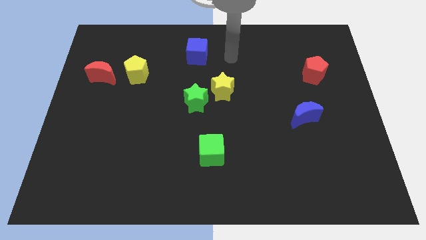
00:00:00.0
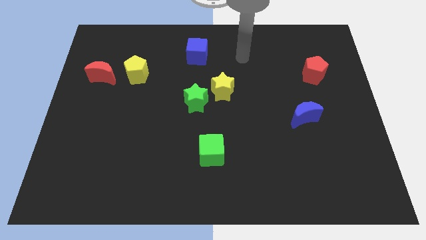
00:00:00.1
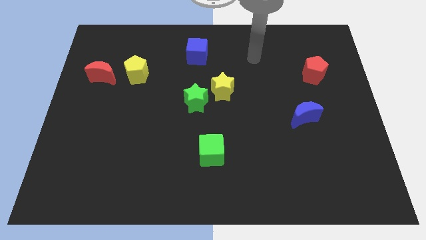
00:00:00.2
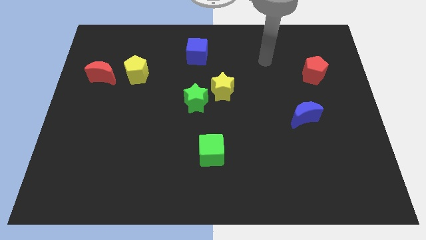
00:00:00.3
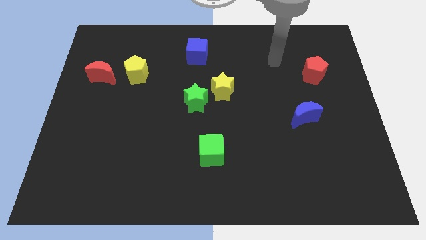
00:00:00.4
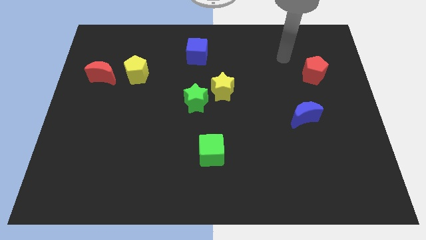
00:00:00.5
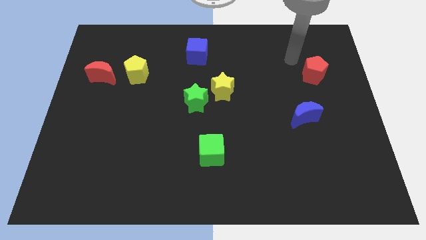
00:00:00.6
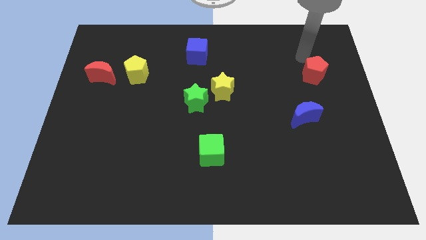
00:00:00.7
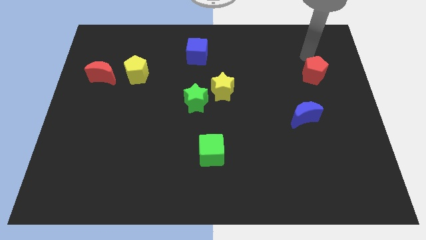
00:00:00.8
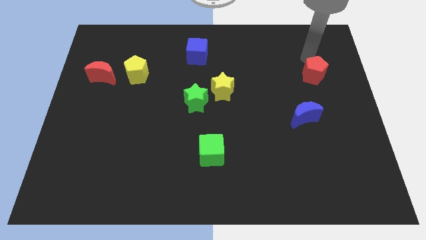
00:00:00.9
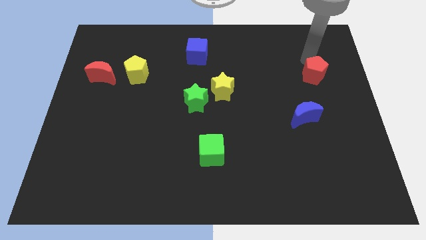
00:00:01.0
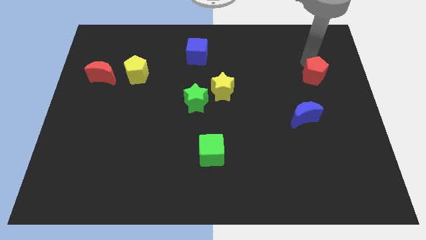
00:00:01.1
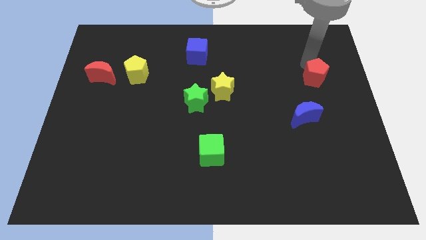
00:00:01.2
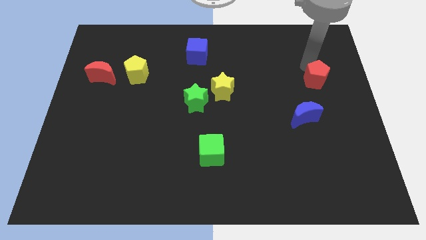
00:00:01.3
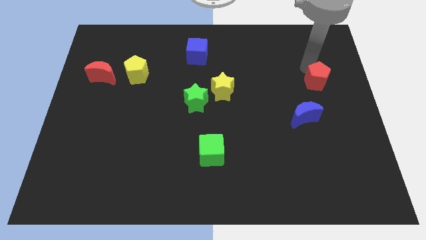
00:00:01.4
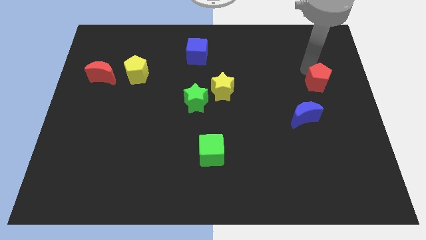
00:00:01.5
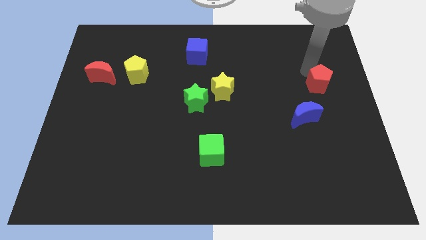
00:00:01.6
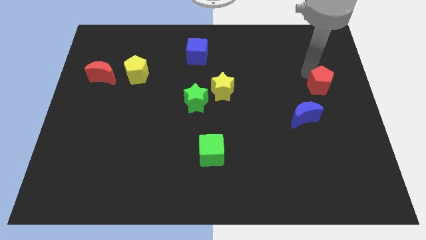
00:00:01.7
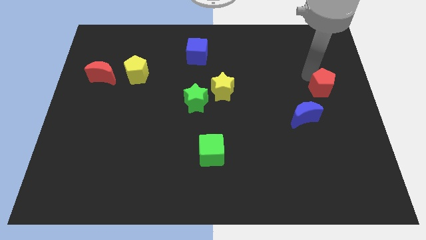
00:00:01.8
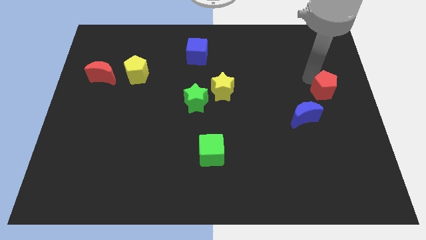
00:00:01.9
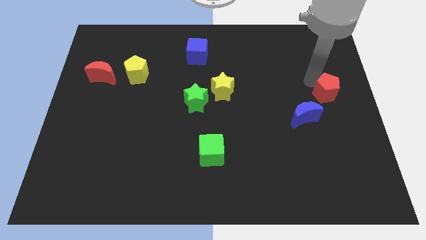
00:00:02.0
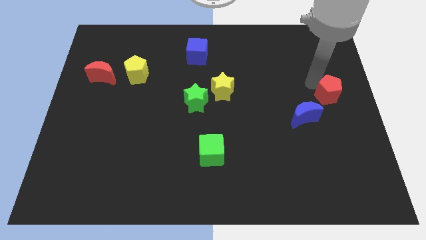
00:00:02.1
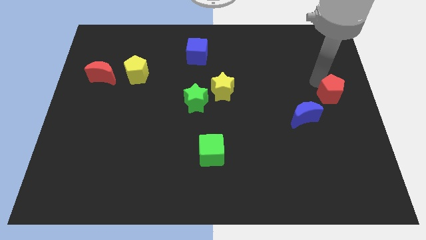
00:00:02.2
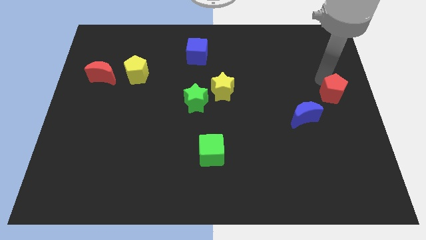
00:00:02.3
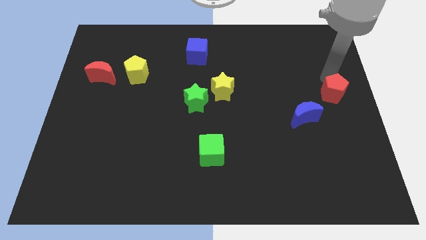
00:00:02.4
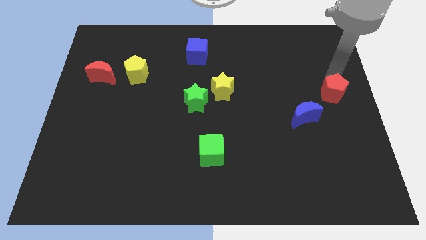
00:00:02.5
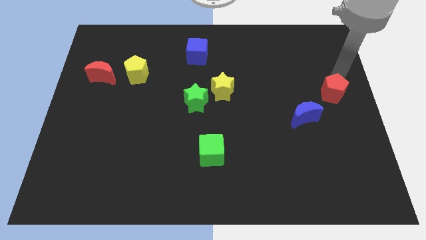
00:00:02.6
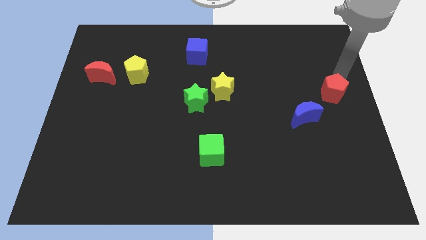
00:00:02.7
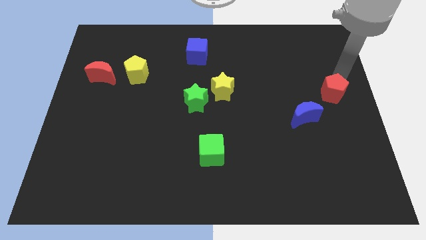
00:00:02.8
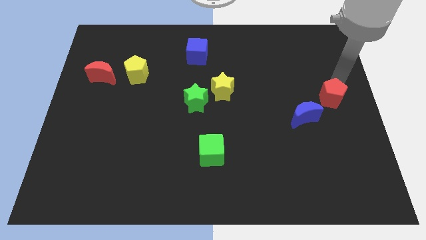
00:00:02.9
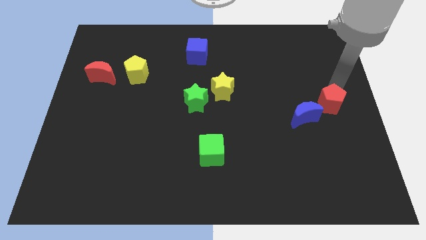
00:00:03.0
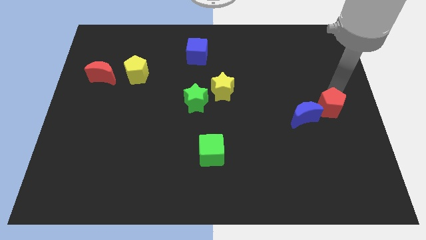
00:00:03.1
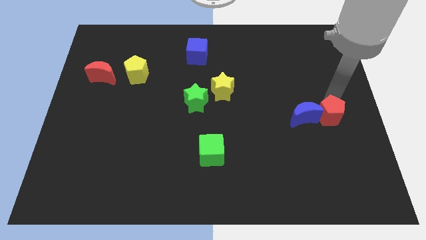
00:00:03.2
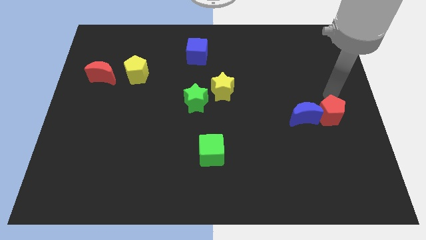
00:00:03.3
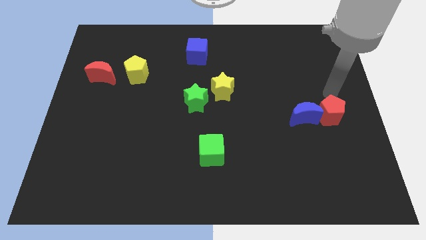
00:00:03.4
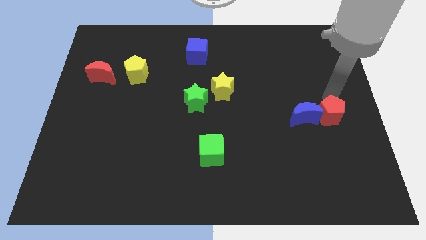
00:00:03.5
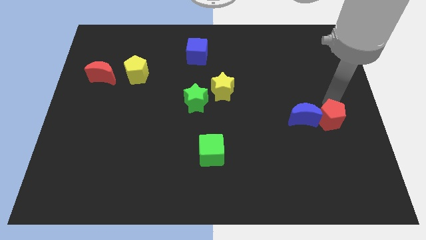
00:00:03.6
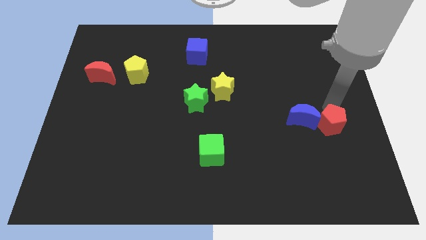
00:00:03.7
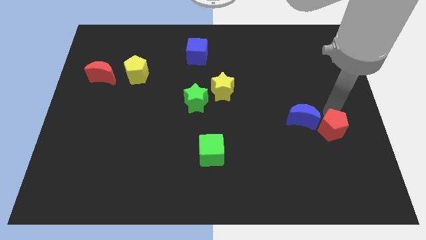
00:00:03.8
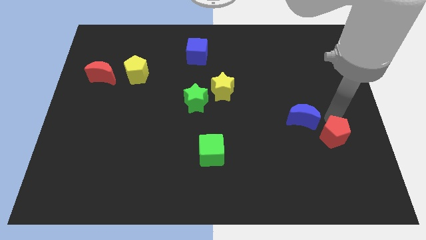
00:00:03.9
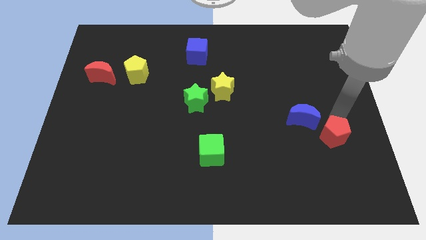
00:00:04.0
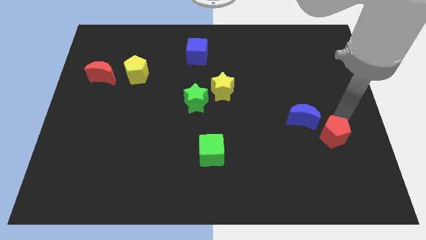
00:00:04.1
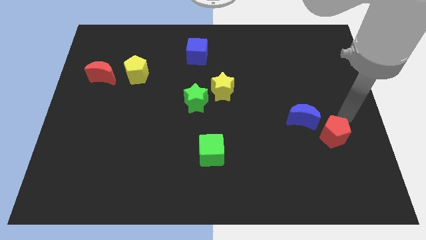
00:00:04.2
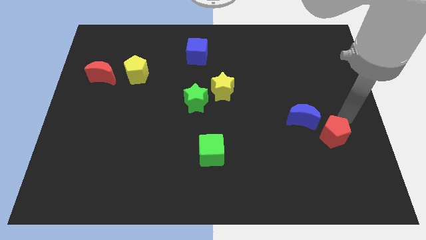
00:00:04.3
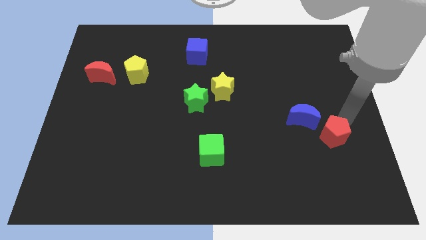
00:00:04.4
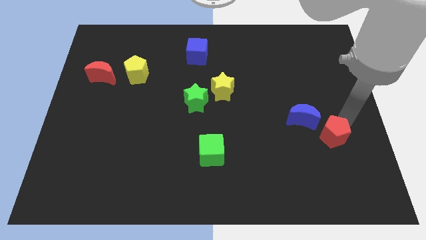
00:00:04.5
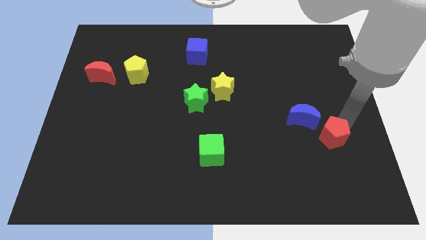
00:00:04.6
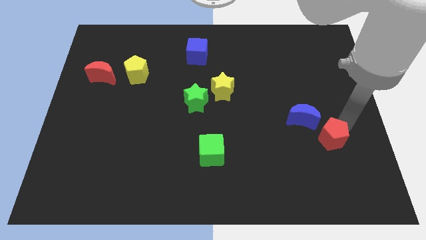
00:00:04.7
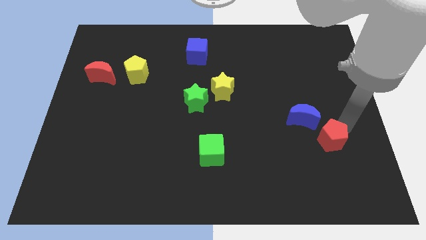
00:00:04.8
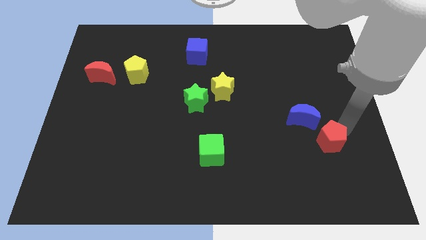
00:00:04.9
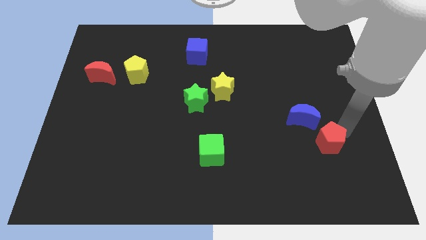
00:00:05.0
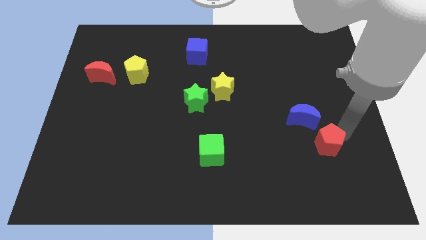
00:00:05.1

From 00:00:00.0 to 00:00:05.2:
slide the red pentagon below the blue moon

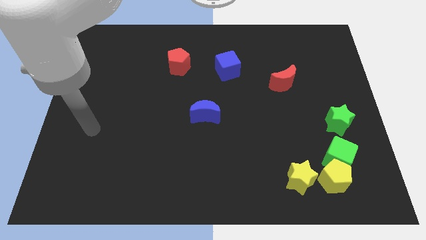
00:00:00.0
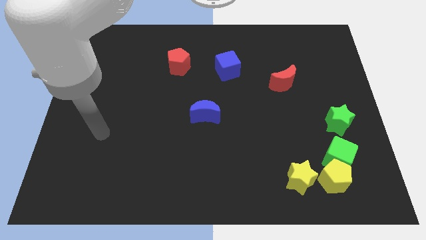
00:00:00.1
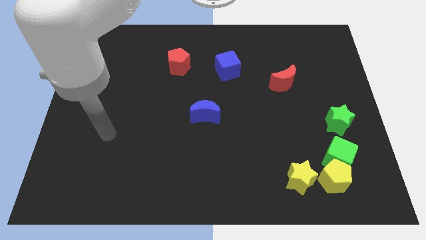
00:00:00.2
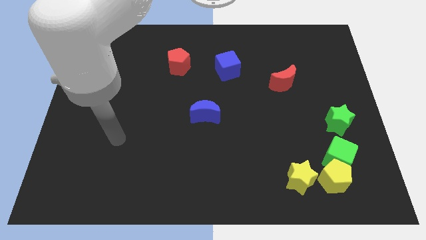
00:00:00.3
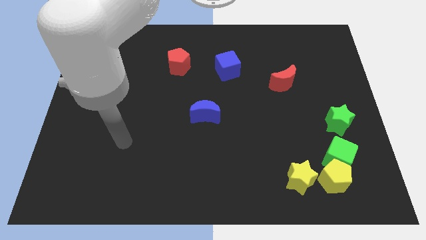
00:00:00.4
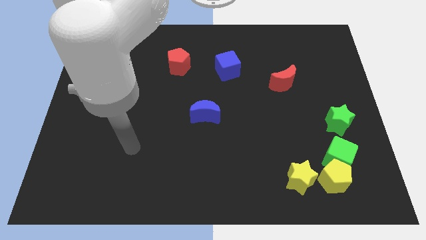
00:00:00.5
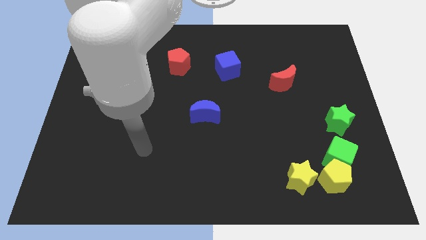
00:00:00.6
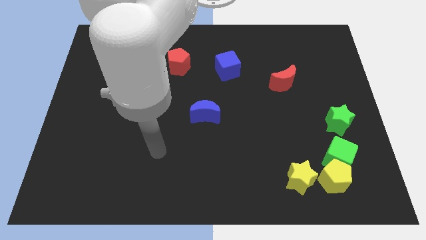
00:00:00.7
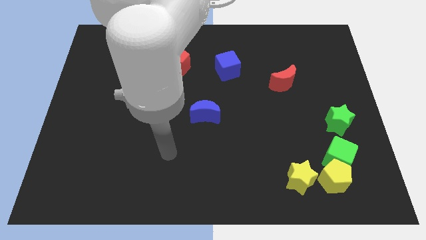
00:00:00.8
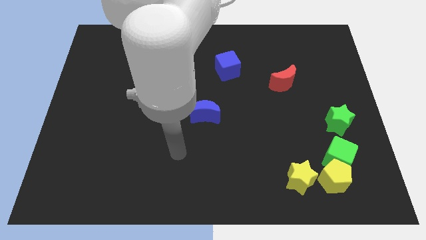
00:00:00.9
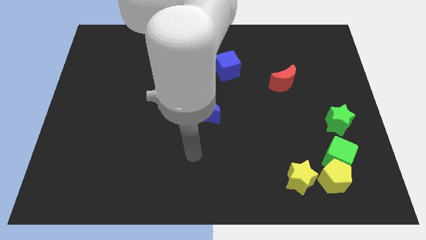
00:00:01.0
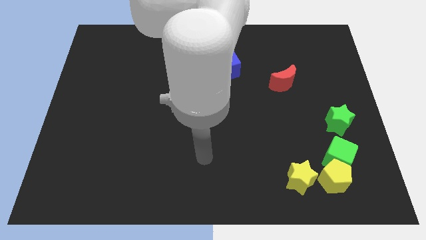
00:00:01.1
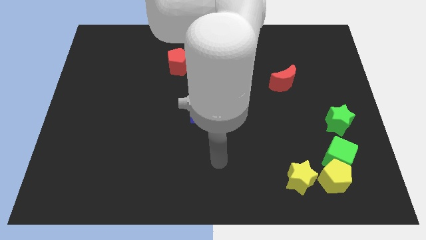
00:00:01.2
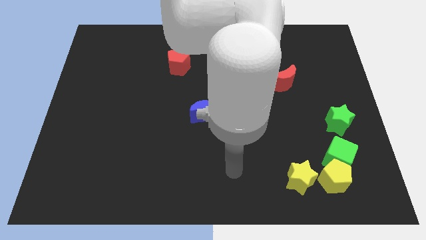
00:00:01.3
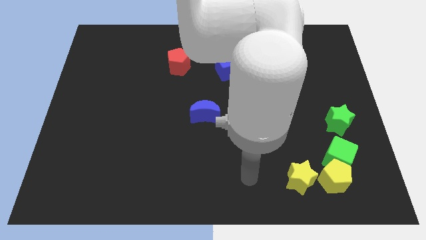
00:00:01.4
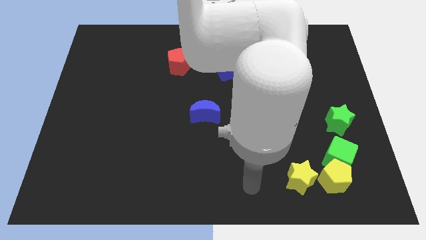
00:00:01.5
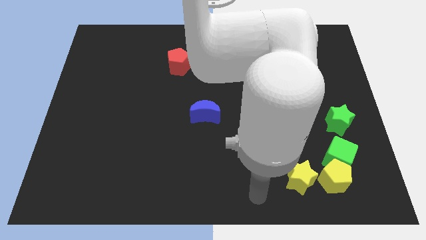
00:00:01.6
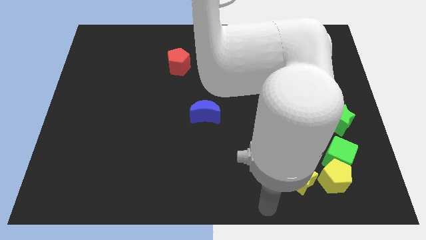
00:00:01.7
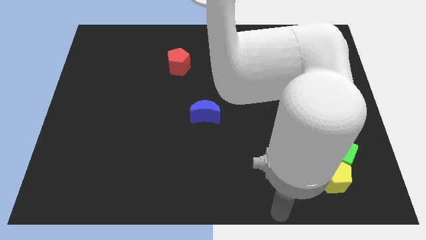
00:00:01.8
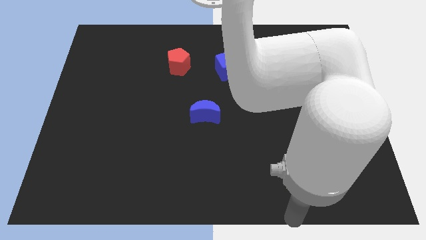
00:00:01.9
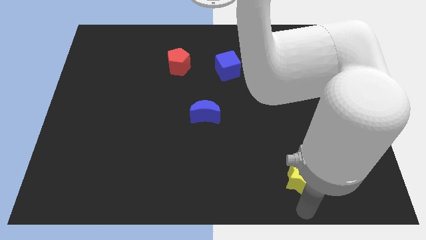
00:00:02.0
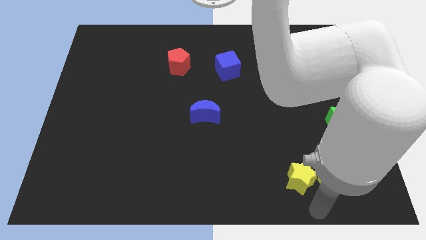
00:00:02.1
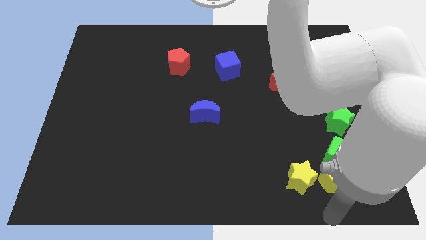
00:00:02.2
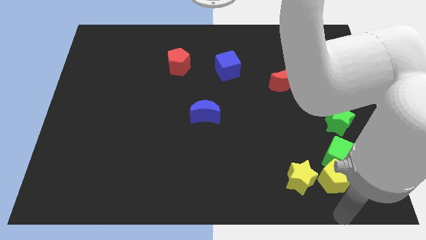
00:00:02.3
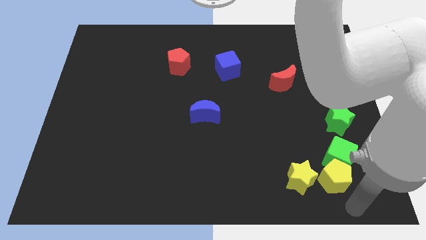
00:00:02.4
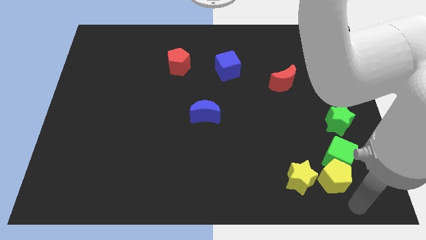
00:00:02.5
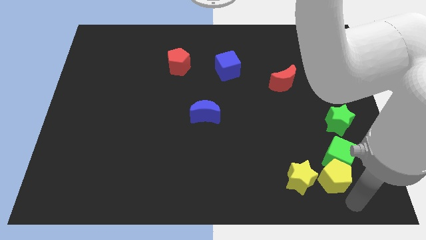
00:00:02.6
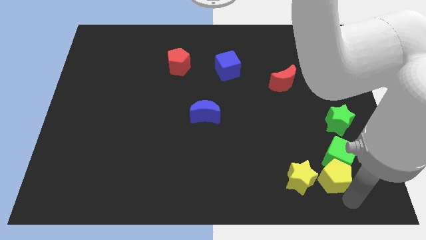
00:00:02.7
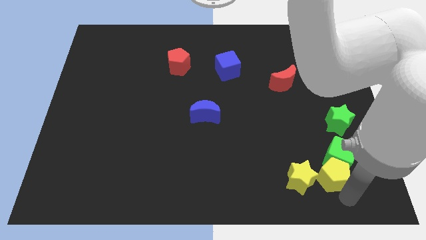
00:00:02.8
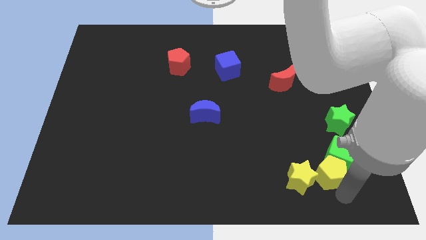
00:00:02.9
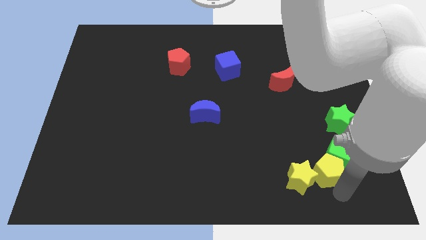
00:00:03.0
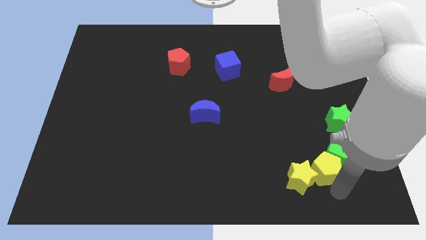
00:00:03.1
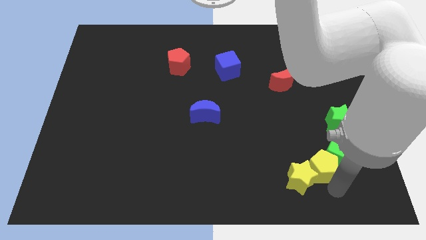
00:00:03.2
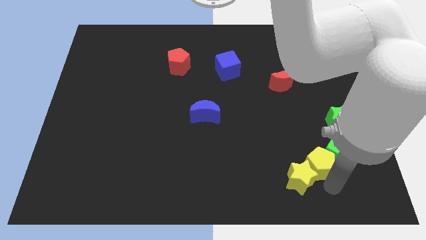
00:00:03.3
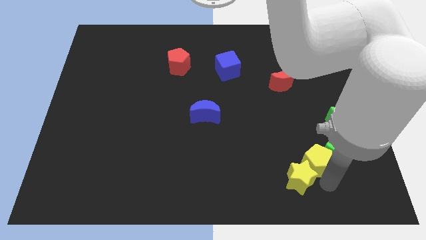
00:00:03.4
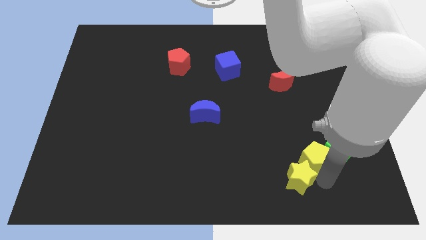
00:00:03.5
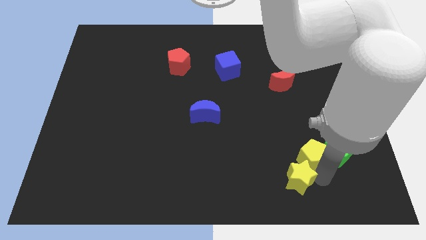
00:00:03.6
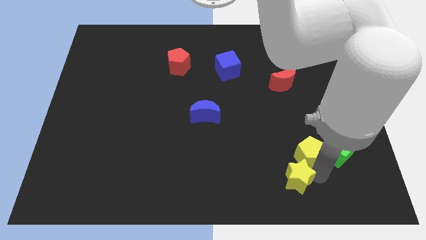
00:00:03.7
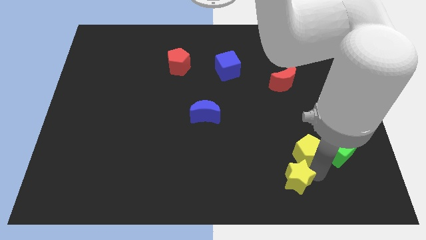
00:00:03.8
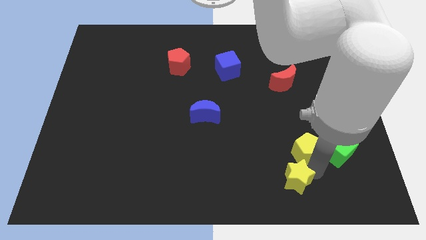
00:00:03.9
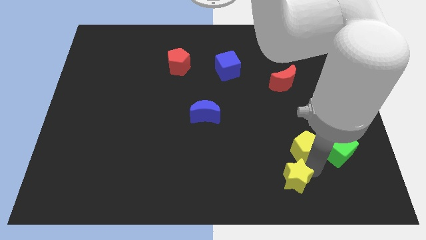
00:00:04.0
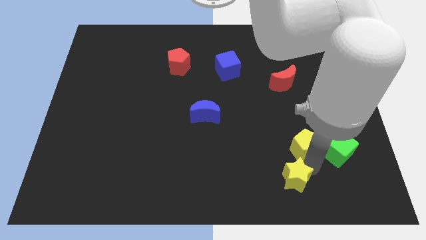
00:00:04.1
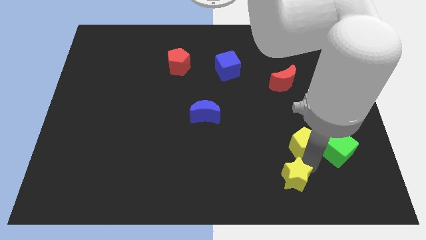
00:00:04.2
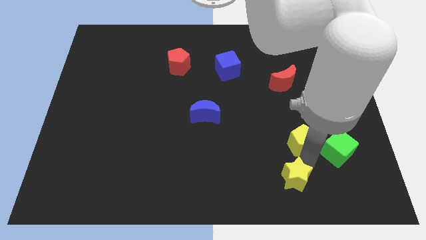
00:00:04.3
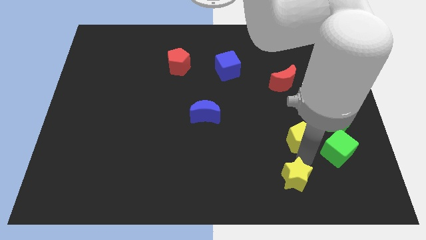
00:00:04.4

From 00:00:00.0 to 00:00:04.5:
push the yellow pentagon left of the green star
